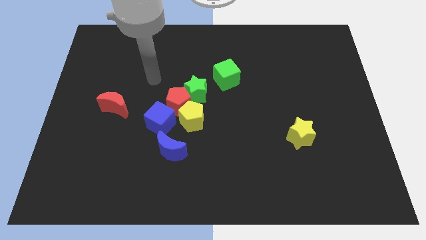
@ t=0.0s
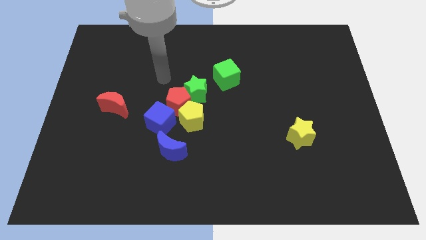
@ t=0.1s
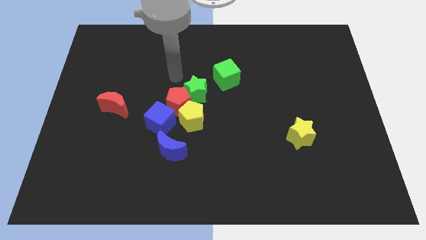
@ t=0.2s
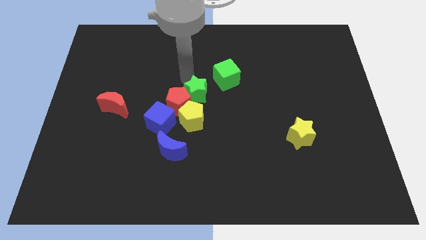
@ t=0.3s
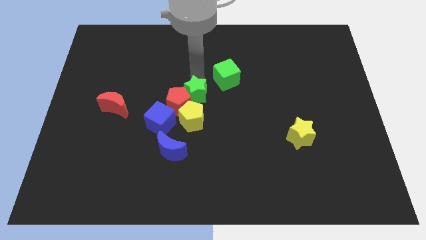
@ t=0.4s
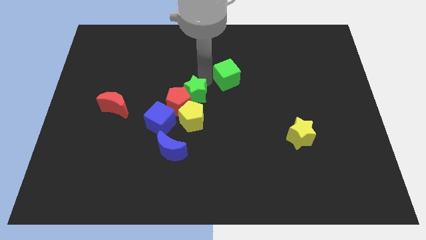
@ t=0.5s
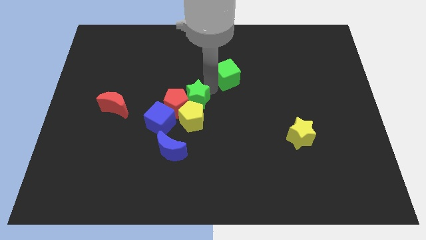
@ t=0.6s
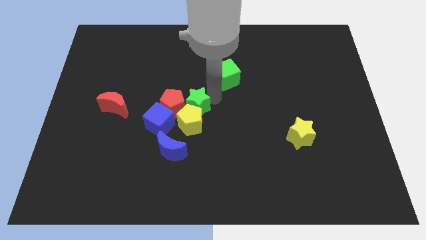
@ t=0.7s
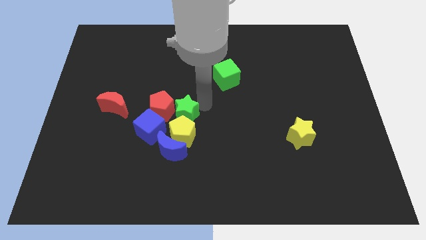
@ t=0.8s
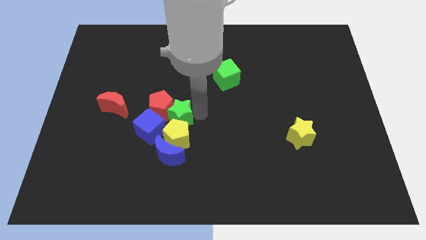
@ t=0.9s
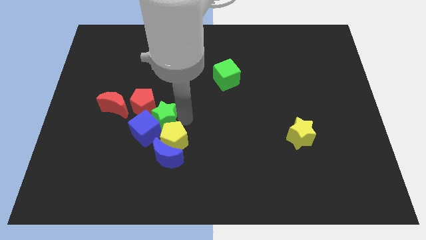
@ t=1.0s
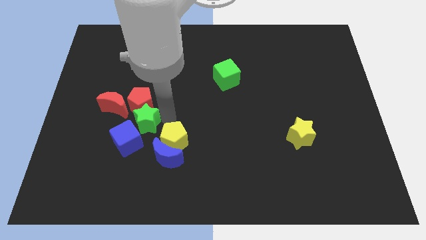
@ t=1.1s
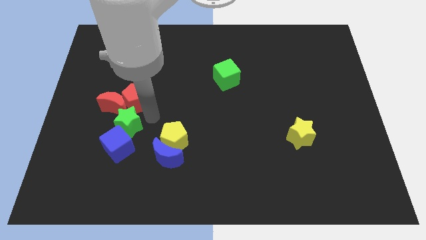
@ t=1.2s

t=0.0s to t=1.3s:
separate the red pentagon from the green star, yellow pentagon, and blue cube

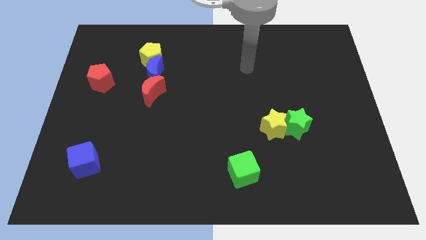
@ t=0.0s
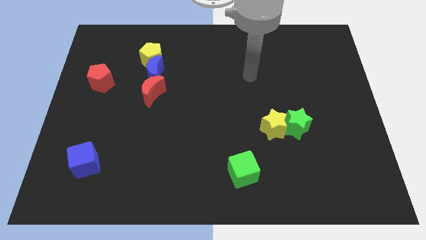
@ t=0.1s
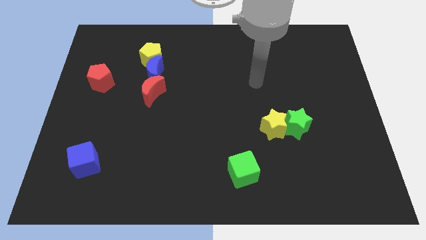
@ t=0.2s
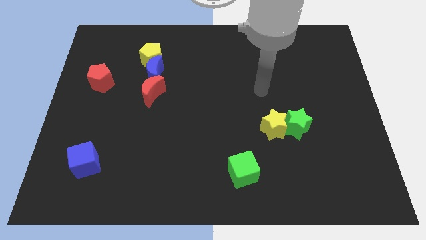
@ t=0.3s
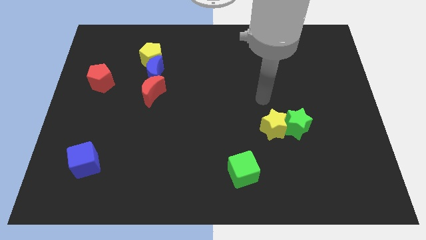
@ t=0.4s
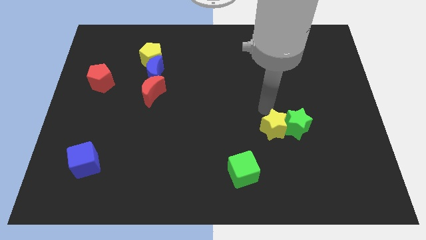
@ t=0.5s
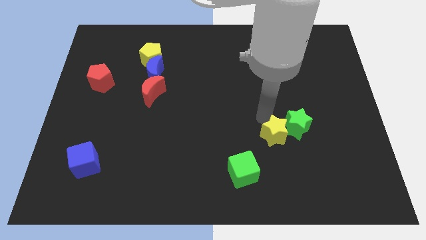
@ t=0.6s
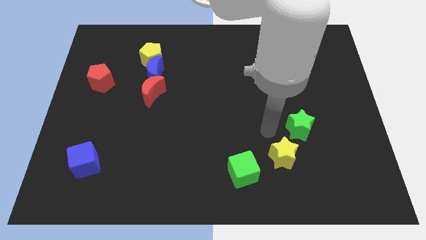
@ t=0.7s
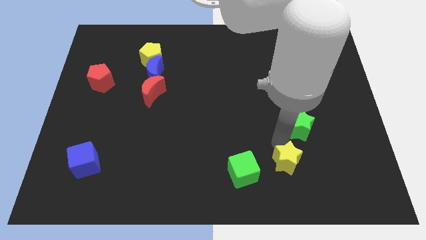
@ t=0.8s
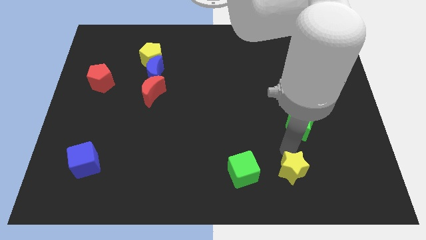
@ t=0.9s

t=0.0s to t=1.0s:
move the green star away from the yellow star

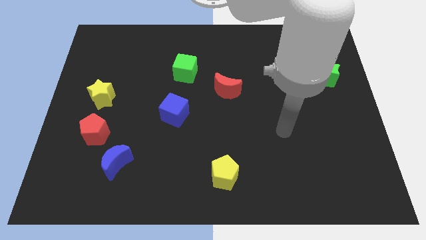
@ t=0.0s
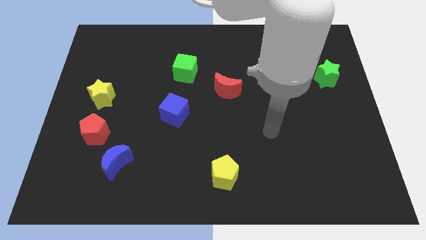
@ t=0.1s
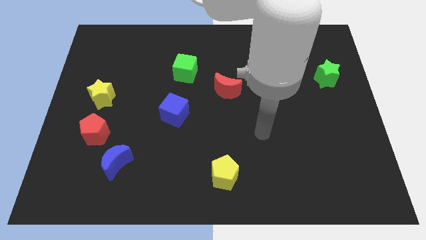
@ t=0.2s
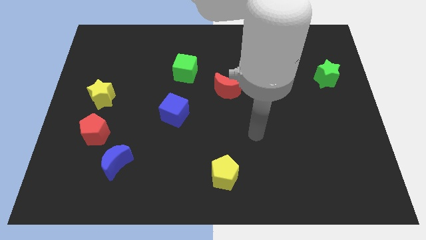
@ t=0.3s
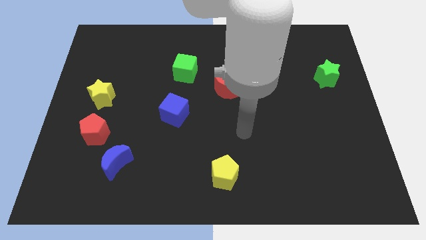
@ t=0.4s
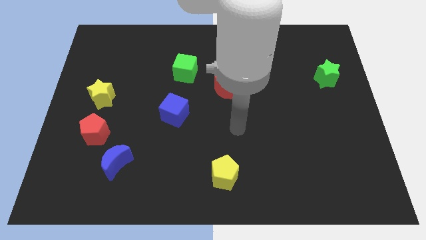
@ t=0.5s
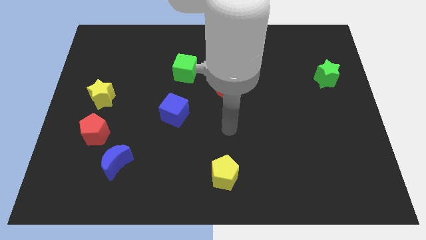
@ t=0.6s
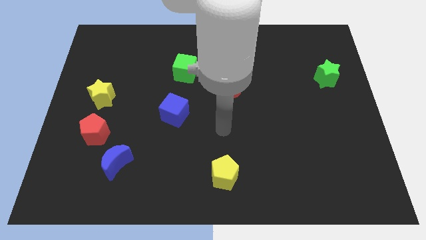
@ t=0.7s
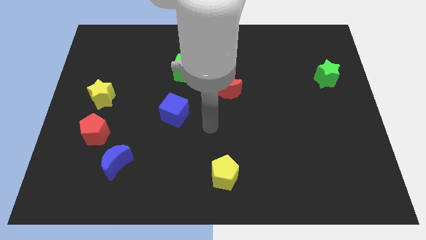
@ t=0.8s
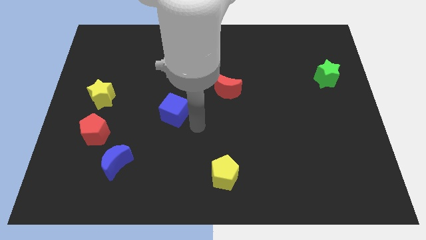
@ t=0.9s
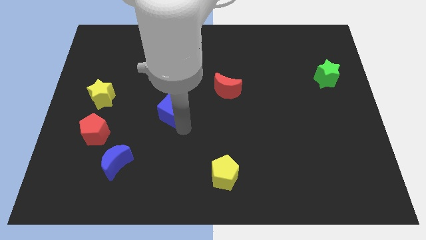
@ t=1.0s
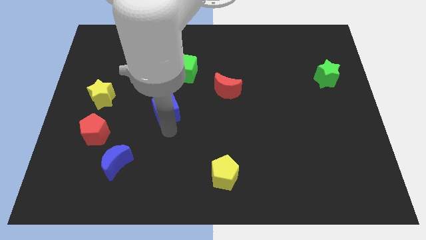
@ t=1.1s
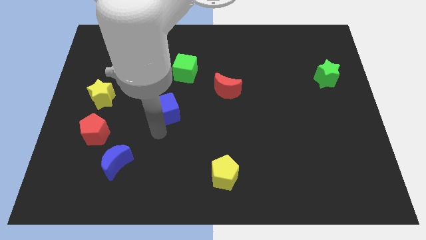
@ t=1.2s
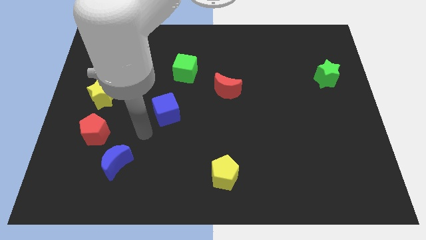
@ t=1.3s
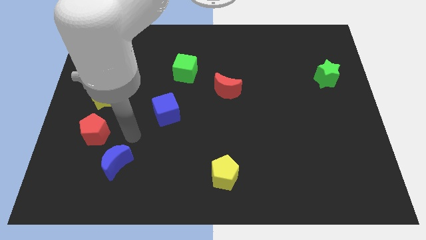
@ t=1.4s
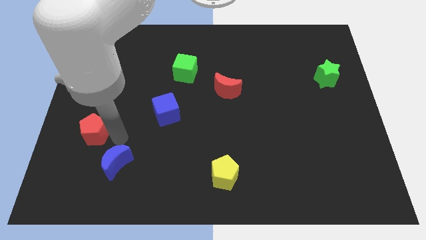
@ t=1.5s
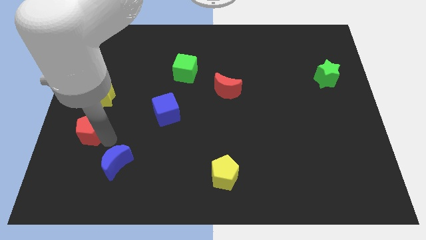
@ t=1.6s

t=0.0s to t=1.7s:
pull the blue moon apart from the red pentagon

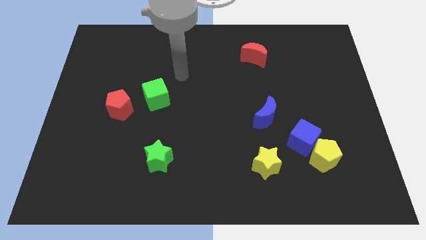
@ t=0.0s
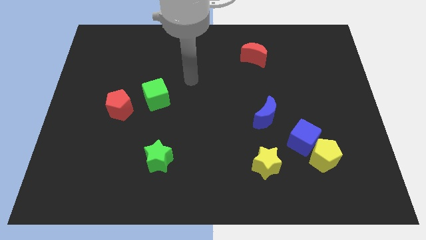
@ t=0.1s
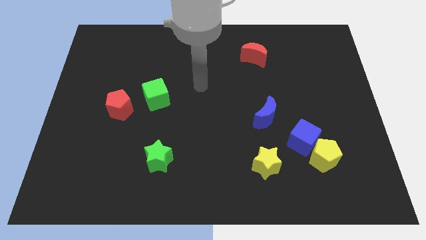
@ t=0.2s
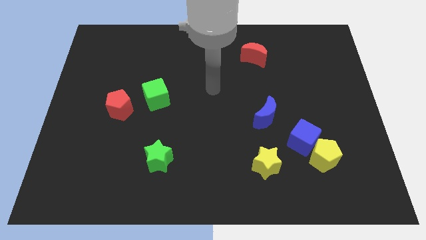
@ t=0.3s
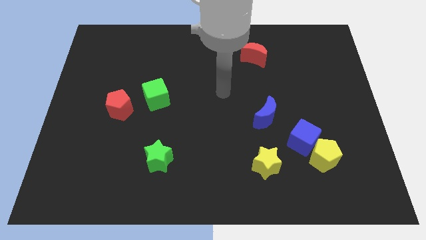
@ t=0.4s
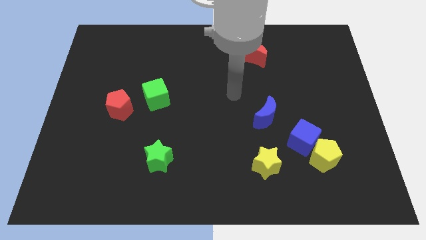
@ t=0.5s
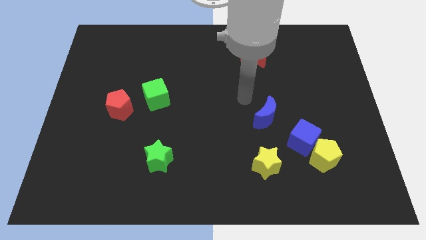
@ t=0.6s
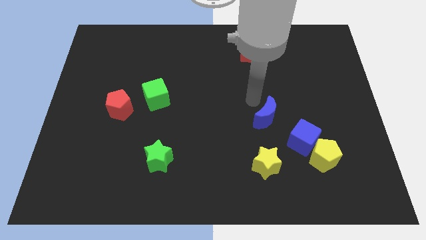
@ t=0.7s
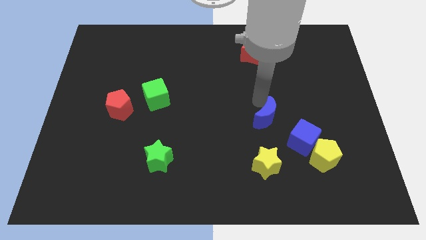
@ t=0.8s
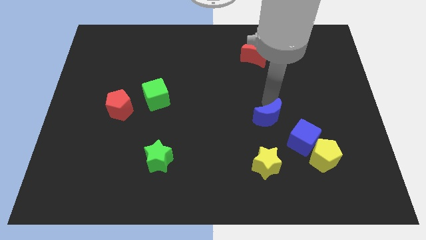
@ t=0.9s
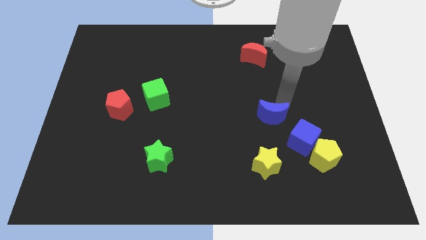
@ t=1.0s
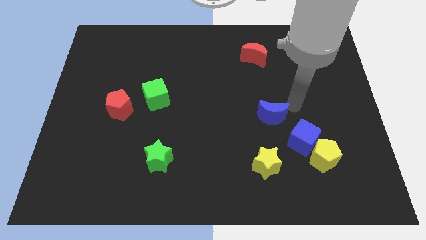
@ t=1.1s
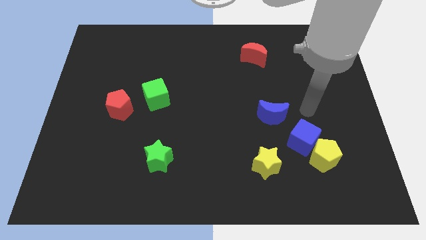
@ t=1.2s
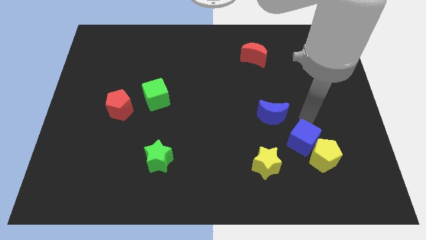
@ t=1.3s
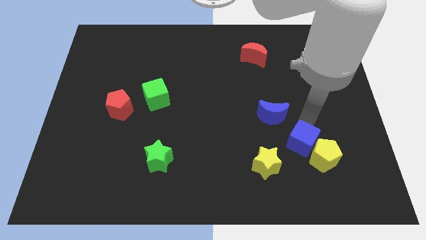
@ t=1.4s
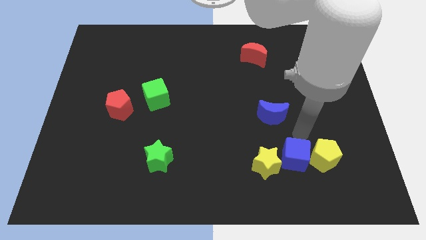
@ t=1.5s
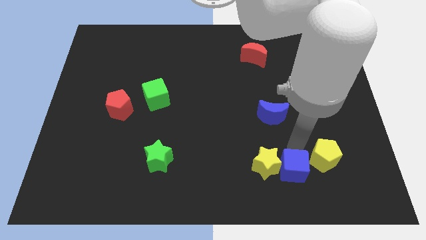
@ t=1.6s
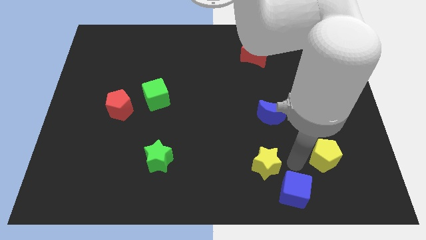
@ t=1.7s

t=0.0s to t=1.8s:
pull the yellow pentagon apart from the blue cube

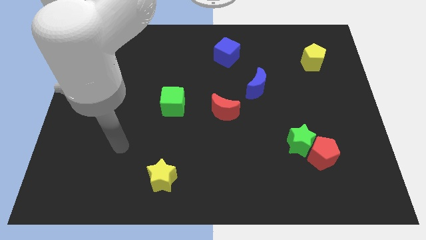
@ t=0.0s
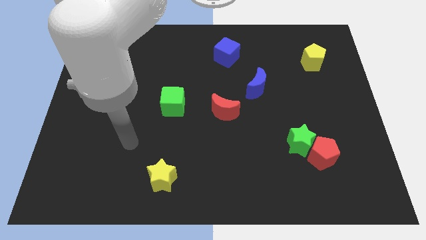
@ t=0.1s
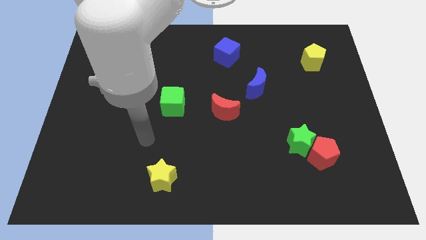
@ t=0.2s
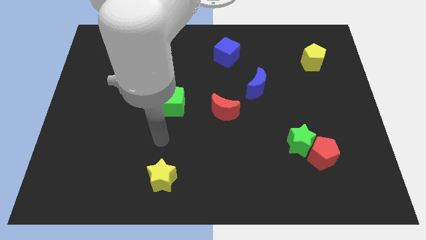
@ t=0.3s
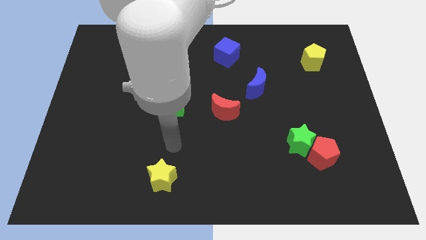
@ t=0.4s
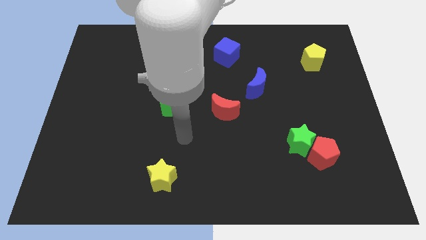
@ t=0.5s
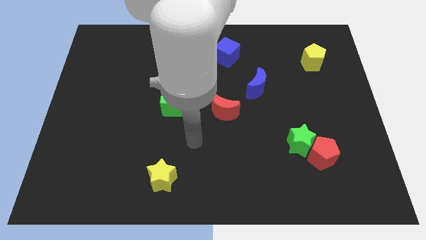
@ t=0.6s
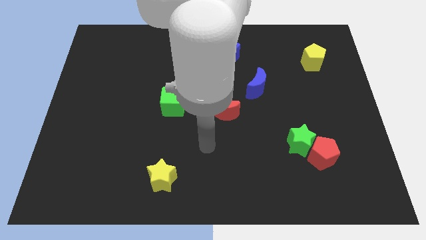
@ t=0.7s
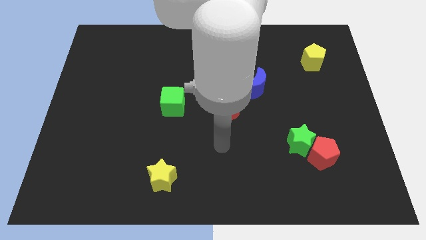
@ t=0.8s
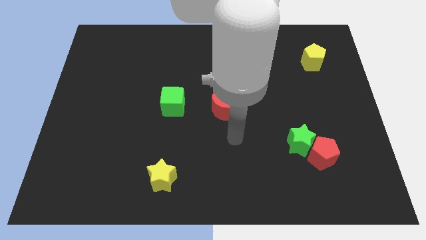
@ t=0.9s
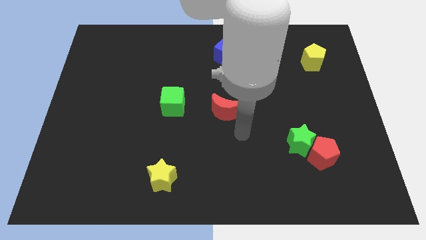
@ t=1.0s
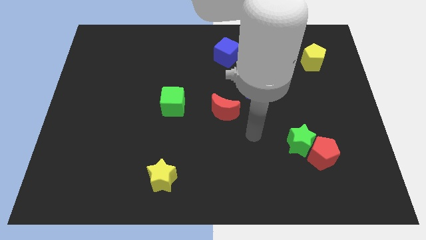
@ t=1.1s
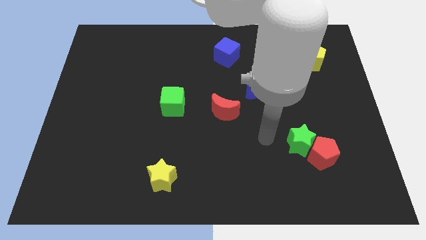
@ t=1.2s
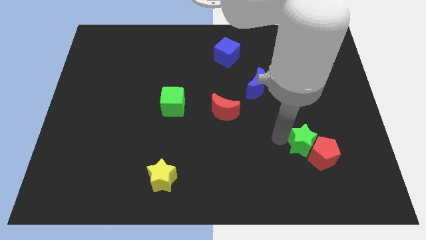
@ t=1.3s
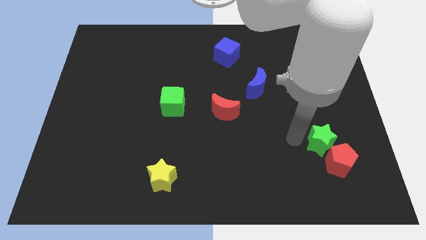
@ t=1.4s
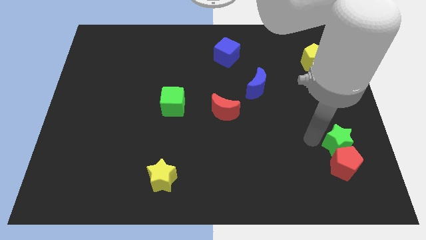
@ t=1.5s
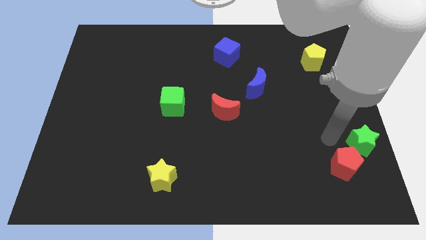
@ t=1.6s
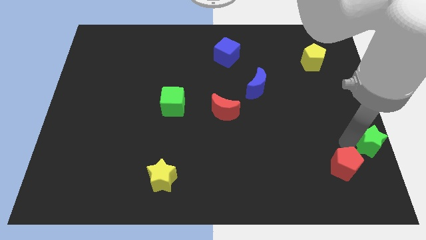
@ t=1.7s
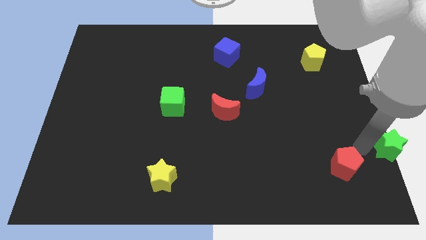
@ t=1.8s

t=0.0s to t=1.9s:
move the red pentagon away from the green star

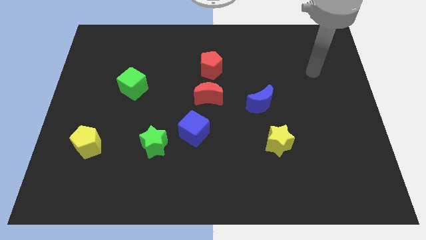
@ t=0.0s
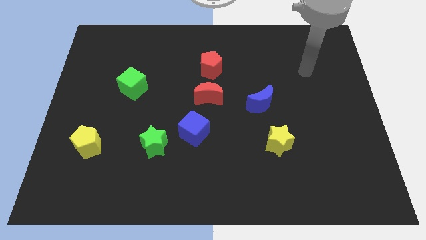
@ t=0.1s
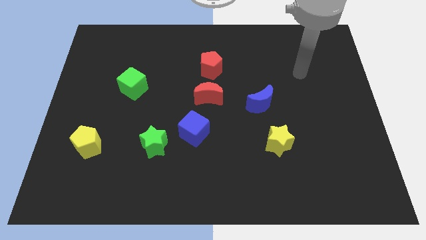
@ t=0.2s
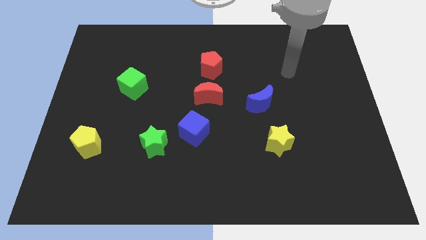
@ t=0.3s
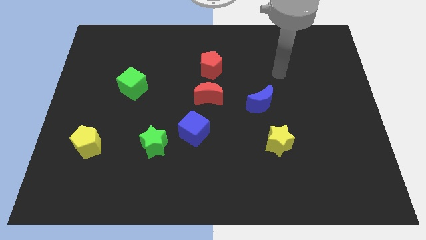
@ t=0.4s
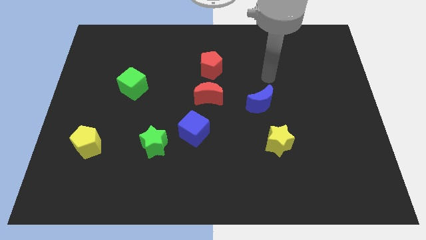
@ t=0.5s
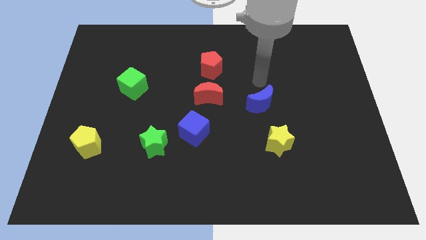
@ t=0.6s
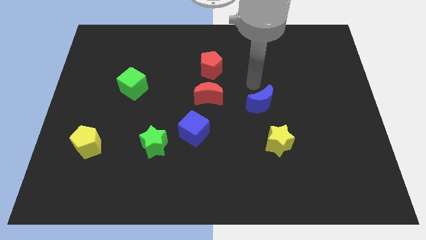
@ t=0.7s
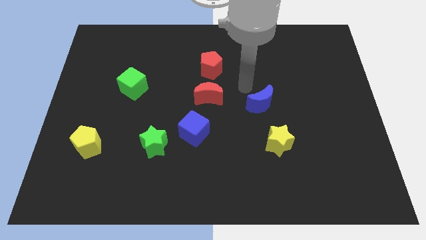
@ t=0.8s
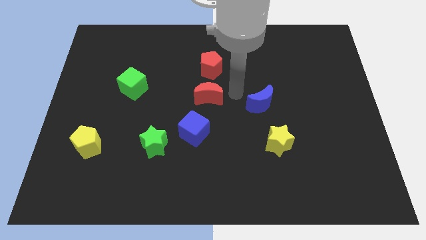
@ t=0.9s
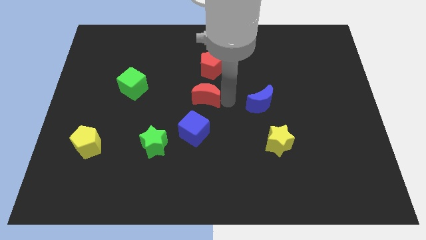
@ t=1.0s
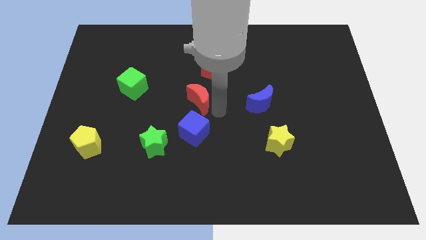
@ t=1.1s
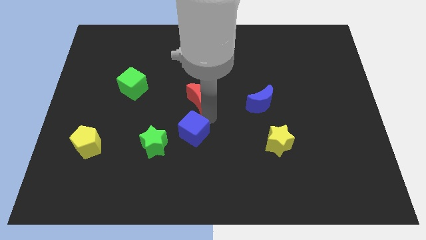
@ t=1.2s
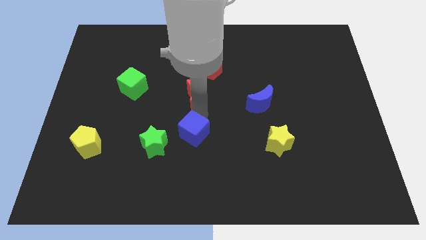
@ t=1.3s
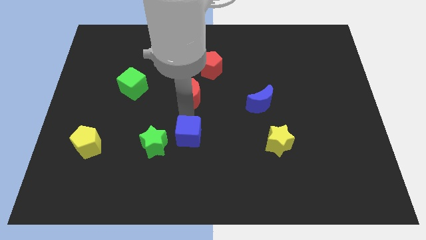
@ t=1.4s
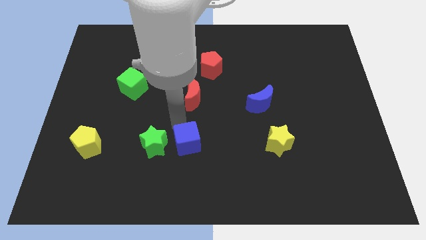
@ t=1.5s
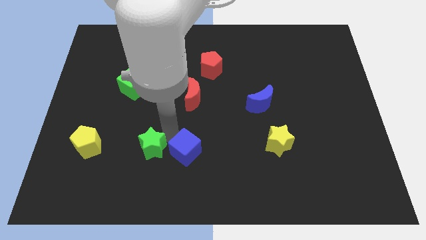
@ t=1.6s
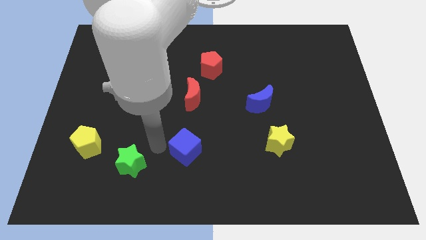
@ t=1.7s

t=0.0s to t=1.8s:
move the blue cube away from the green star
